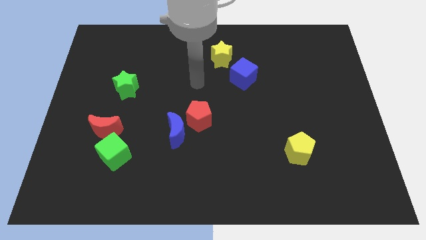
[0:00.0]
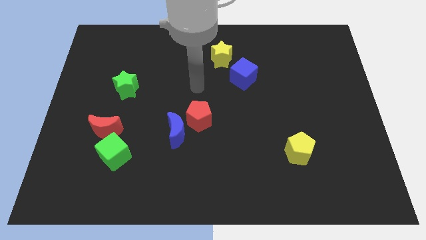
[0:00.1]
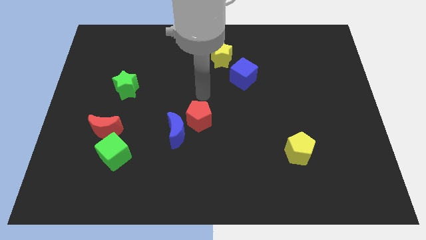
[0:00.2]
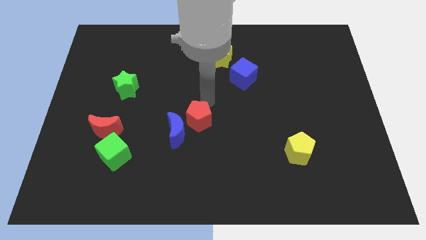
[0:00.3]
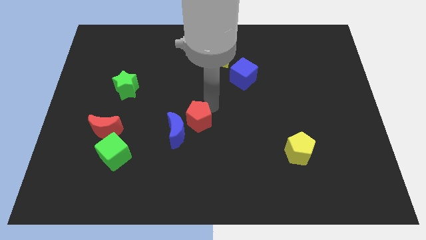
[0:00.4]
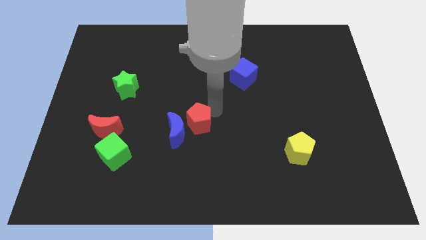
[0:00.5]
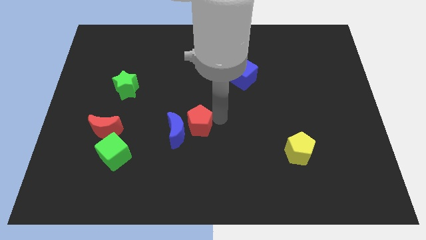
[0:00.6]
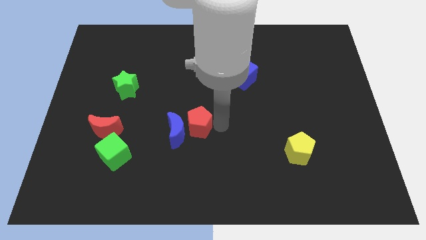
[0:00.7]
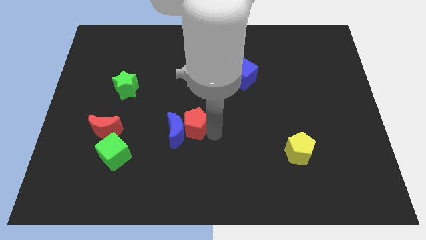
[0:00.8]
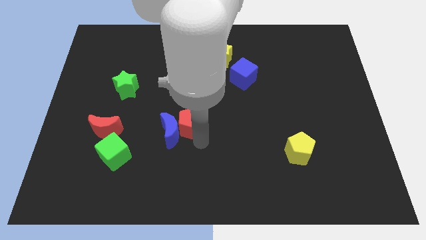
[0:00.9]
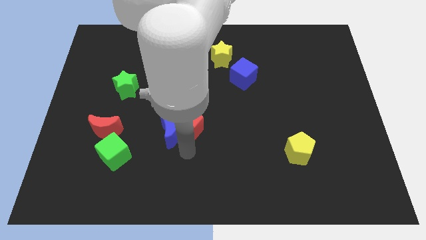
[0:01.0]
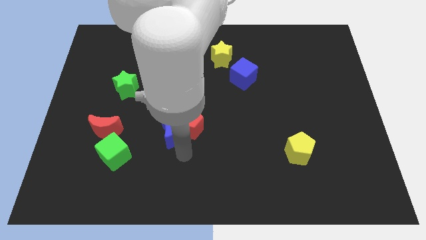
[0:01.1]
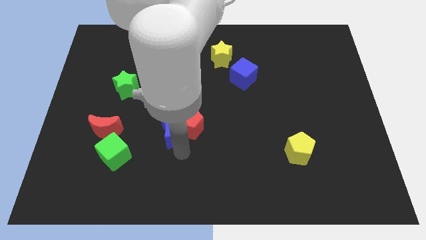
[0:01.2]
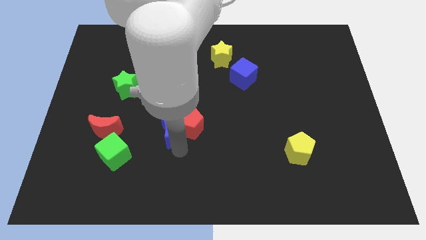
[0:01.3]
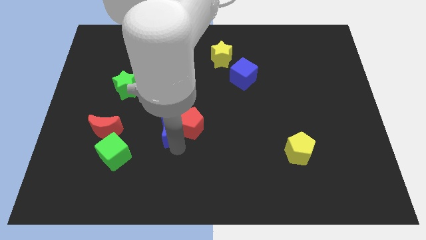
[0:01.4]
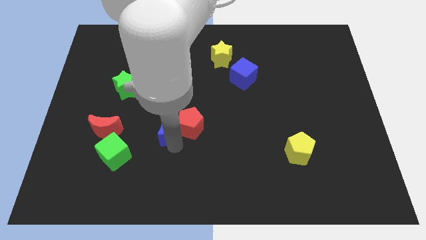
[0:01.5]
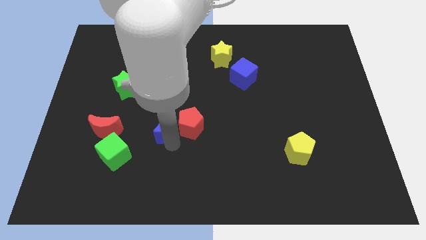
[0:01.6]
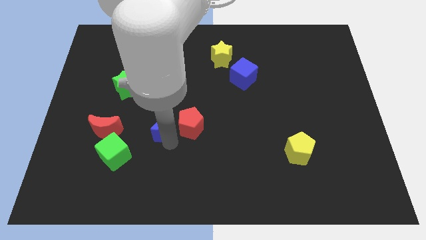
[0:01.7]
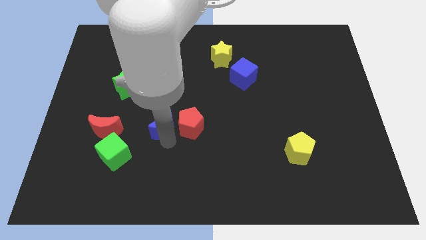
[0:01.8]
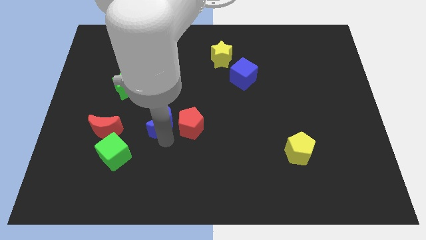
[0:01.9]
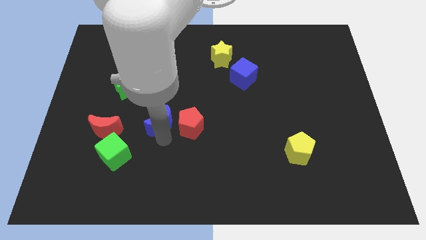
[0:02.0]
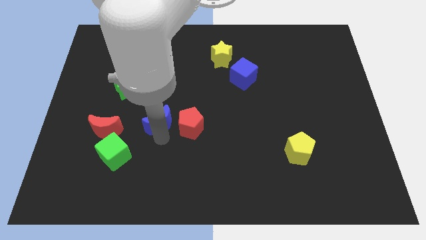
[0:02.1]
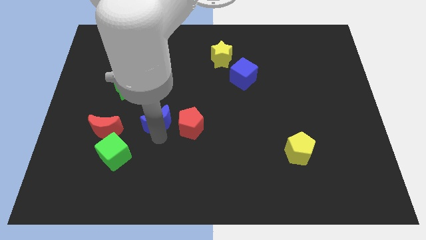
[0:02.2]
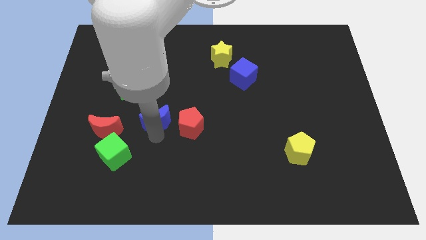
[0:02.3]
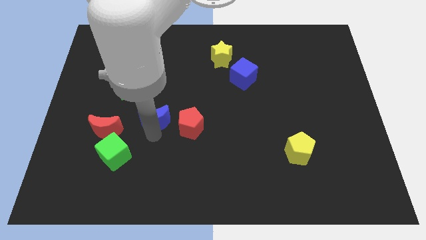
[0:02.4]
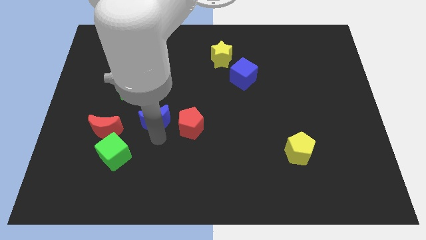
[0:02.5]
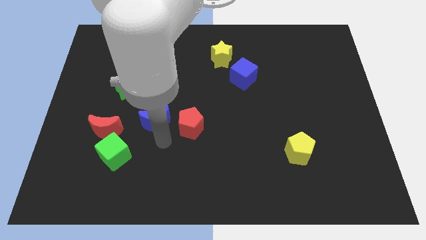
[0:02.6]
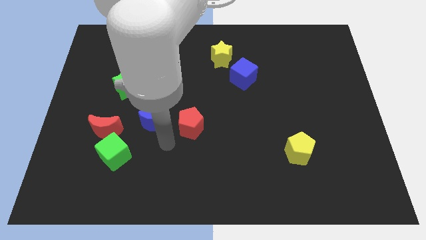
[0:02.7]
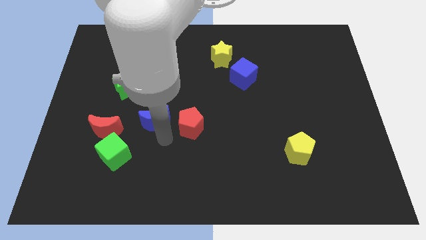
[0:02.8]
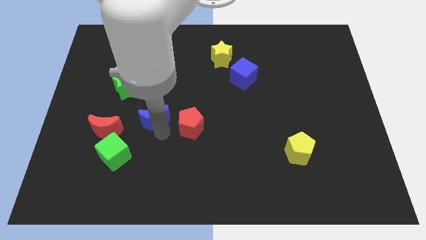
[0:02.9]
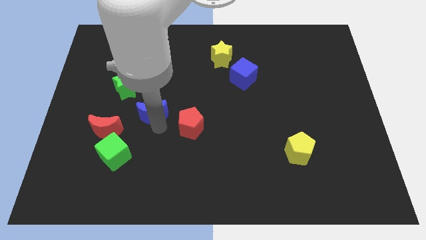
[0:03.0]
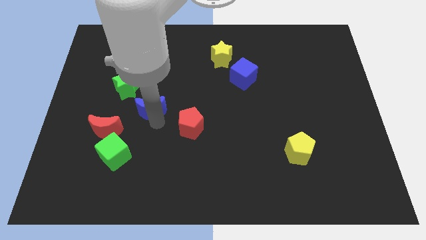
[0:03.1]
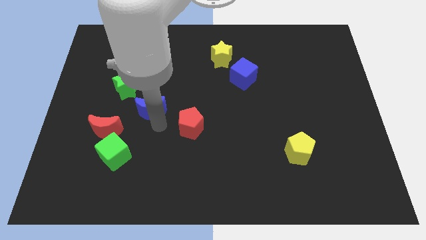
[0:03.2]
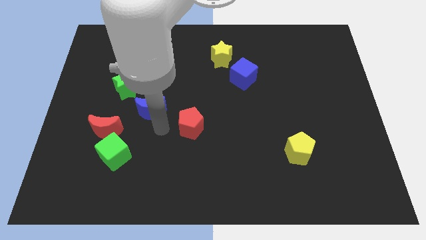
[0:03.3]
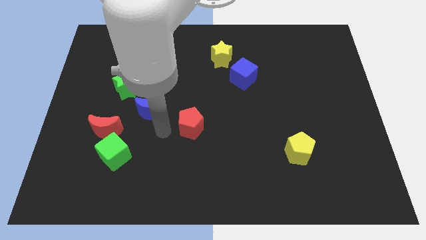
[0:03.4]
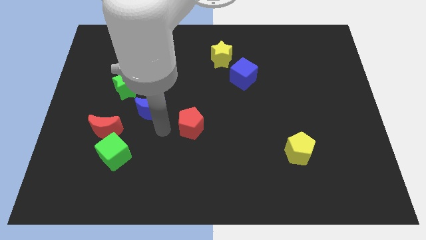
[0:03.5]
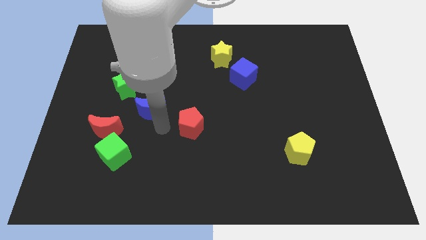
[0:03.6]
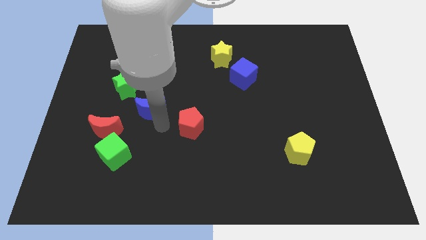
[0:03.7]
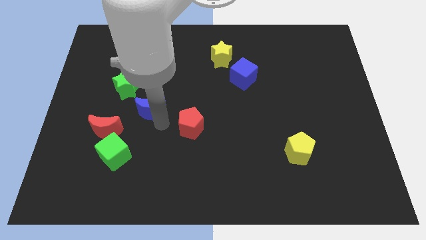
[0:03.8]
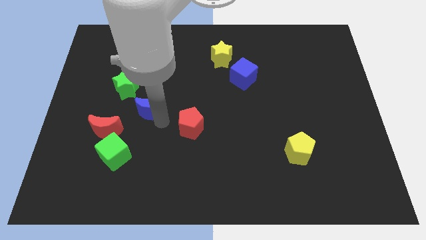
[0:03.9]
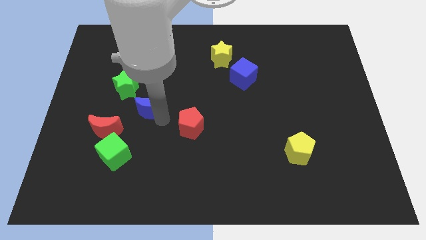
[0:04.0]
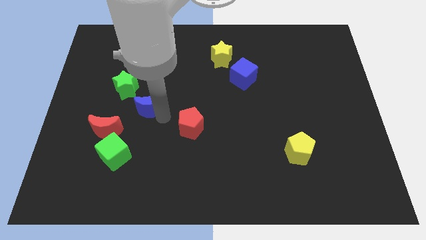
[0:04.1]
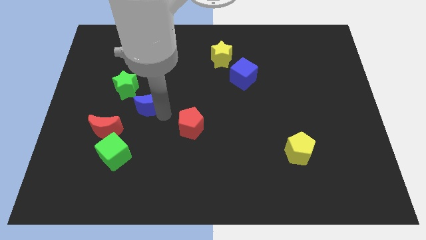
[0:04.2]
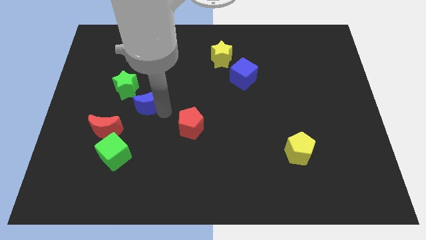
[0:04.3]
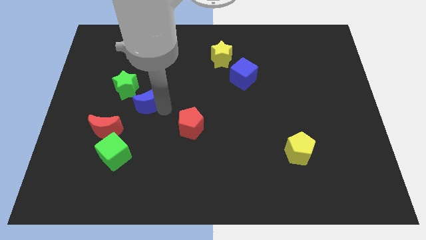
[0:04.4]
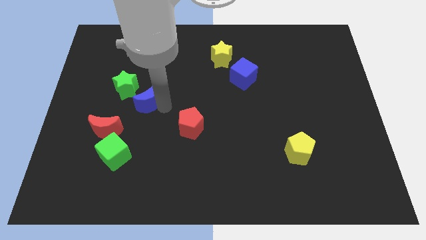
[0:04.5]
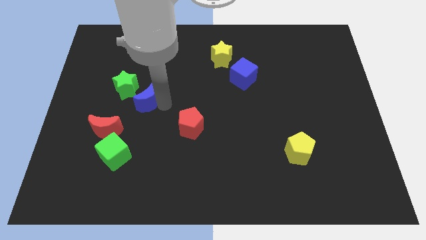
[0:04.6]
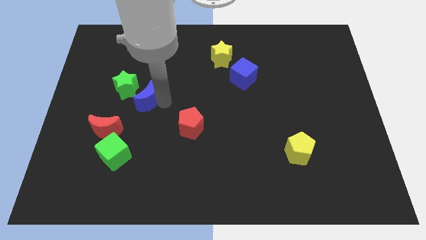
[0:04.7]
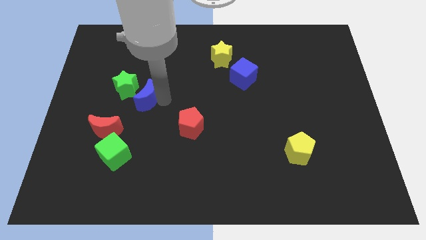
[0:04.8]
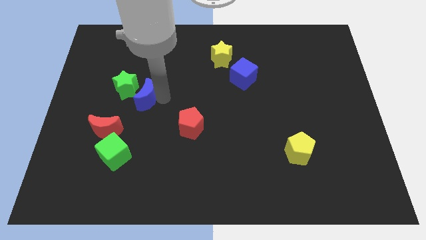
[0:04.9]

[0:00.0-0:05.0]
push the blue moon to the green star

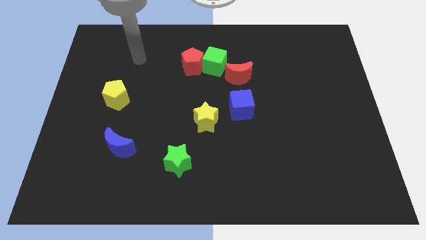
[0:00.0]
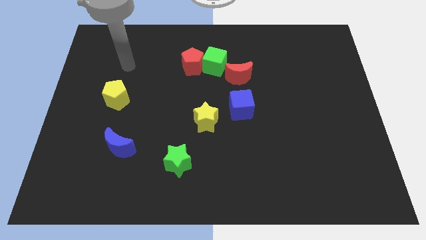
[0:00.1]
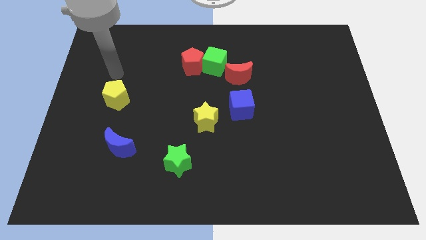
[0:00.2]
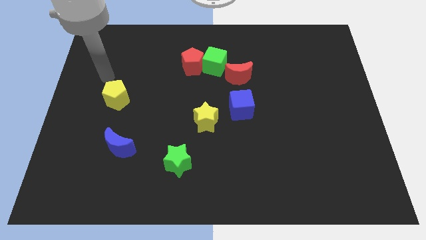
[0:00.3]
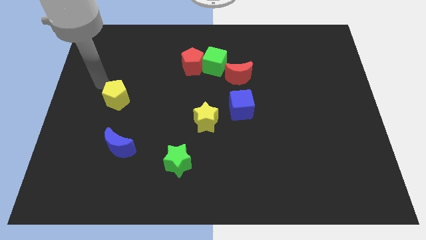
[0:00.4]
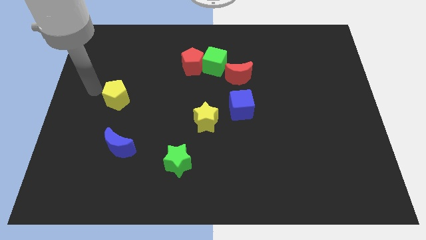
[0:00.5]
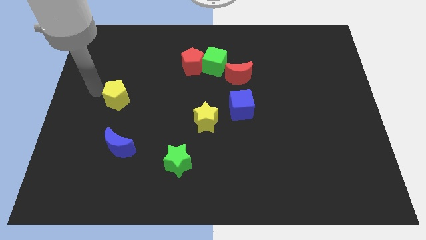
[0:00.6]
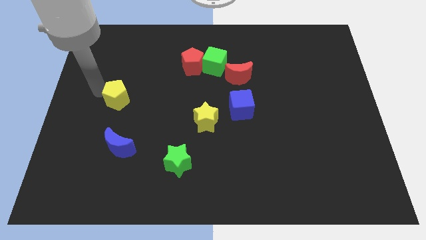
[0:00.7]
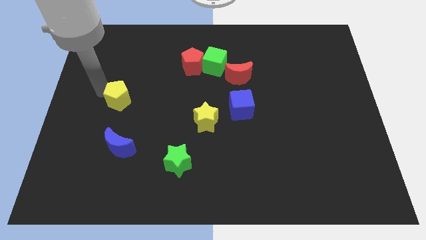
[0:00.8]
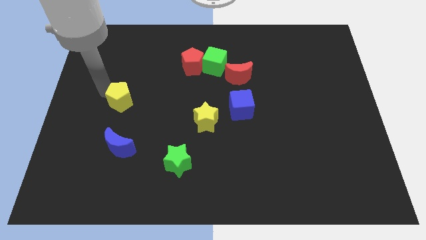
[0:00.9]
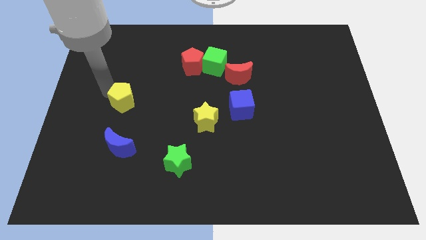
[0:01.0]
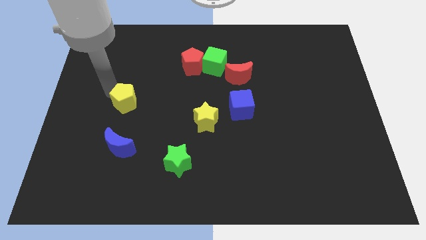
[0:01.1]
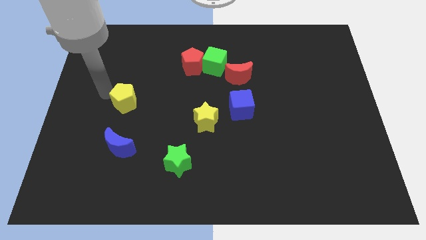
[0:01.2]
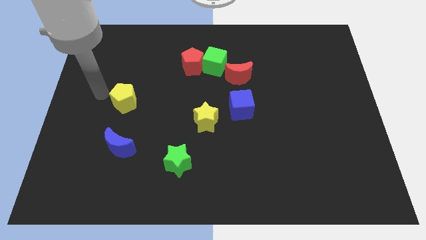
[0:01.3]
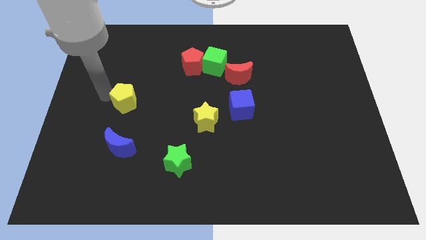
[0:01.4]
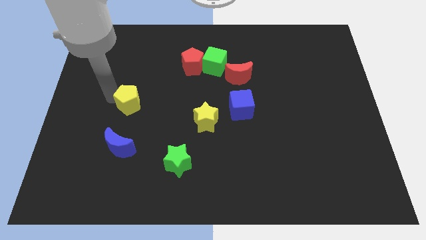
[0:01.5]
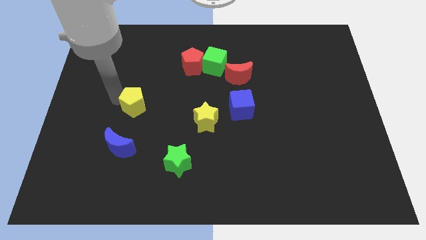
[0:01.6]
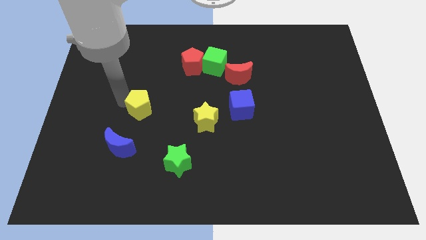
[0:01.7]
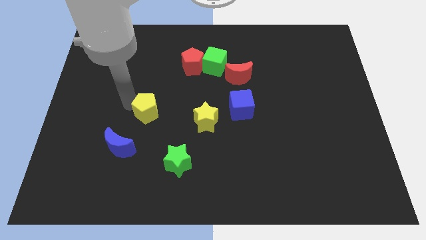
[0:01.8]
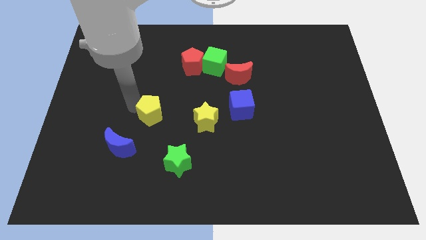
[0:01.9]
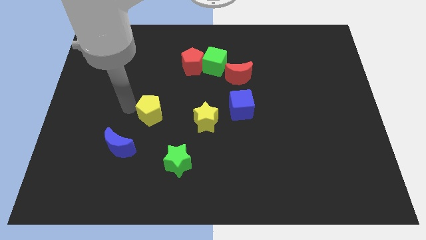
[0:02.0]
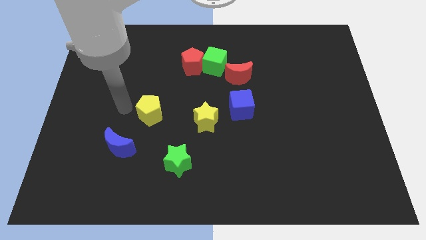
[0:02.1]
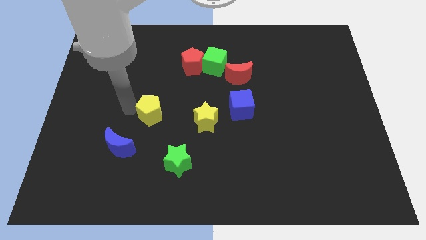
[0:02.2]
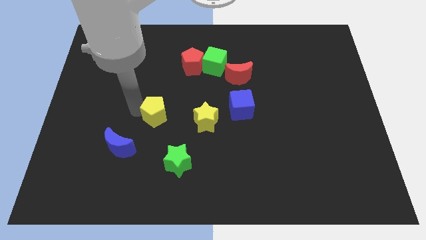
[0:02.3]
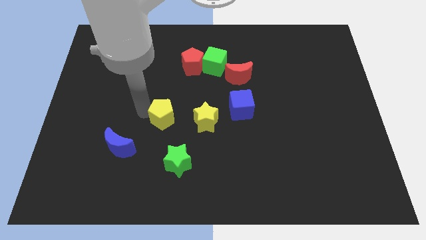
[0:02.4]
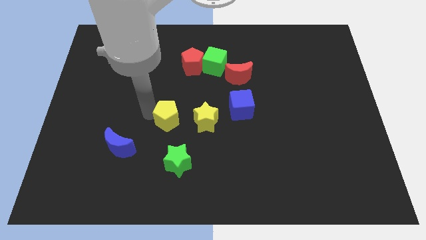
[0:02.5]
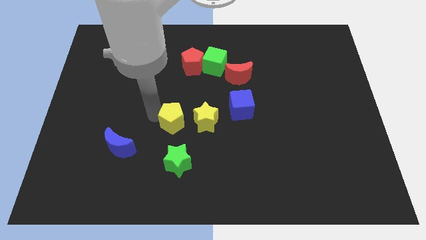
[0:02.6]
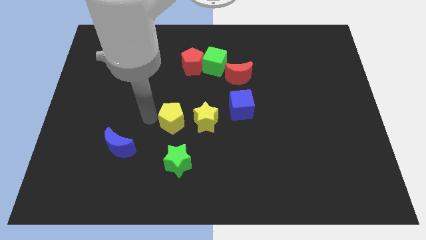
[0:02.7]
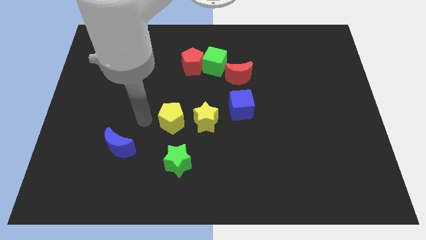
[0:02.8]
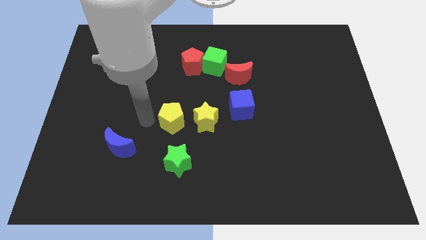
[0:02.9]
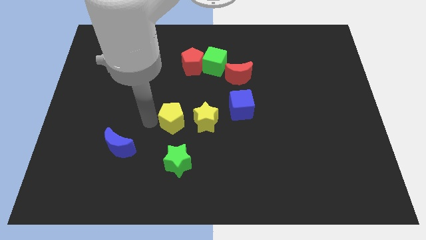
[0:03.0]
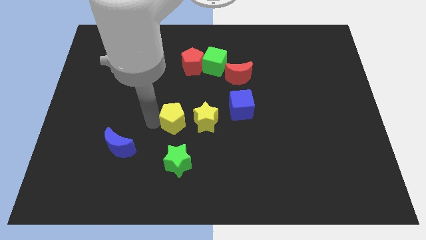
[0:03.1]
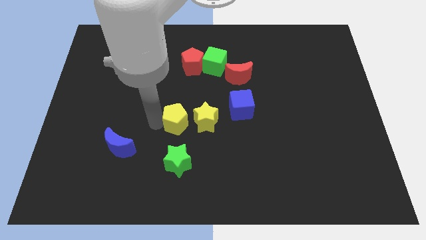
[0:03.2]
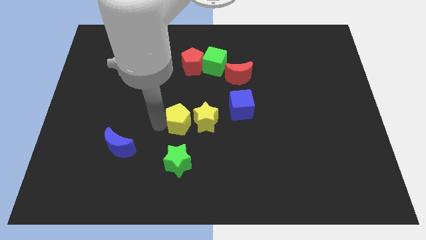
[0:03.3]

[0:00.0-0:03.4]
slide the yellow pentagon next to the yellow star
